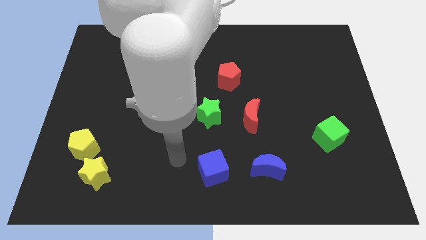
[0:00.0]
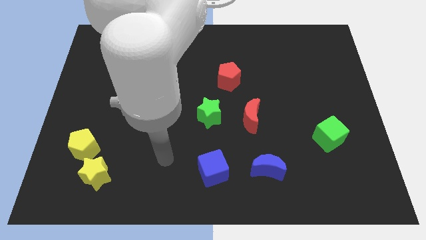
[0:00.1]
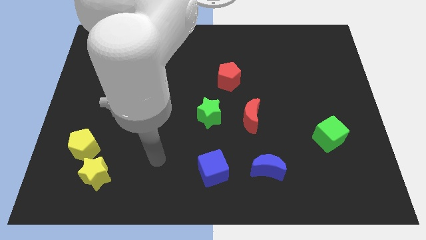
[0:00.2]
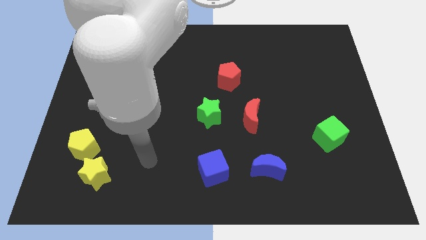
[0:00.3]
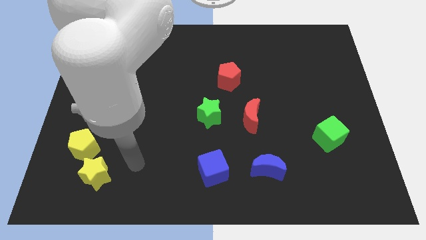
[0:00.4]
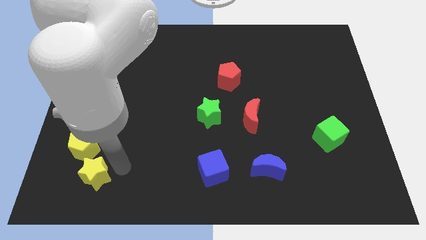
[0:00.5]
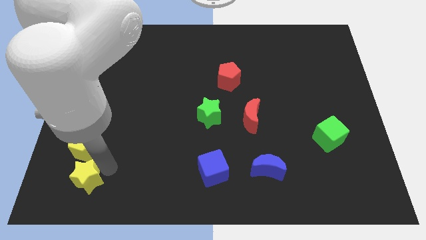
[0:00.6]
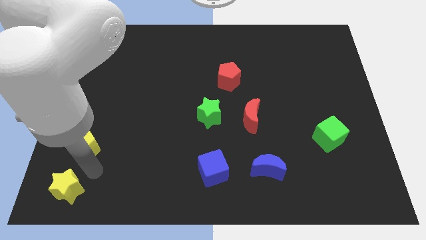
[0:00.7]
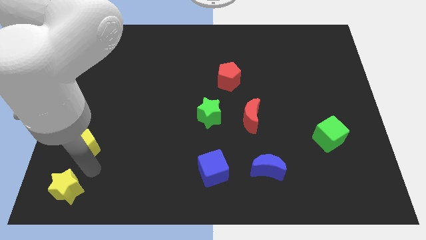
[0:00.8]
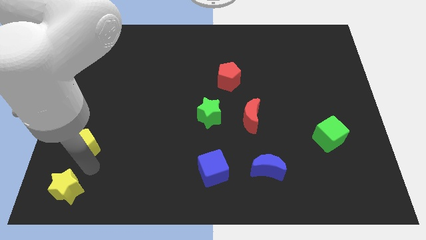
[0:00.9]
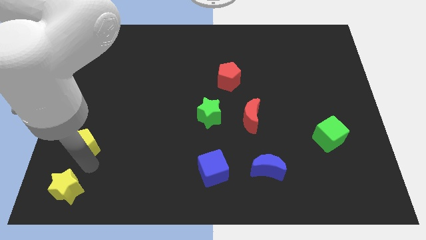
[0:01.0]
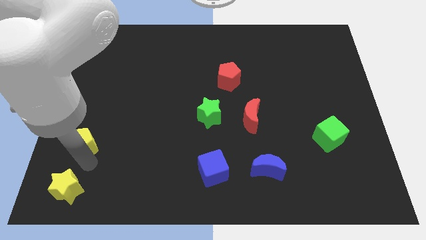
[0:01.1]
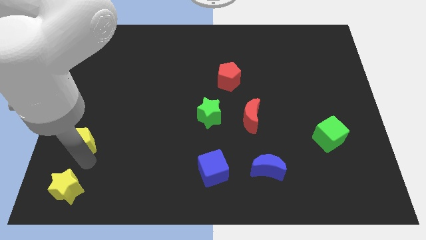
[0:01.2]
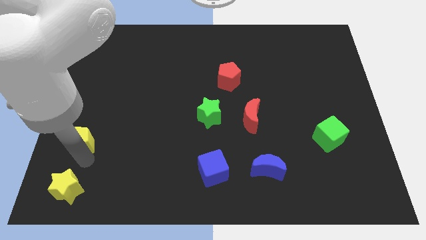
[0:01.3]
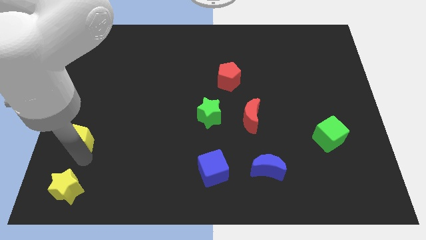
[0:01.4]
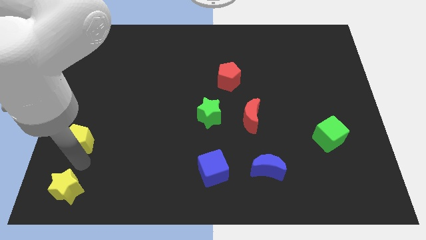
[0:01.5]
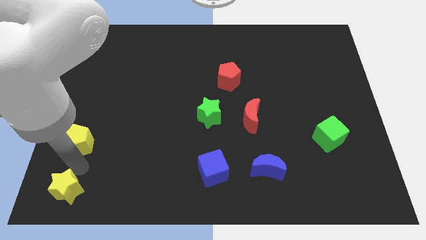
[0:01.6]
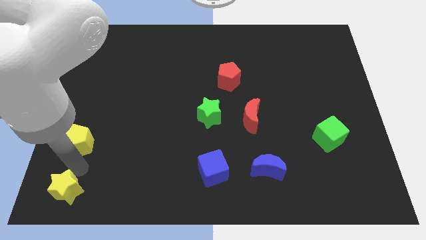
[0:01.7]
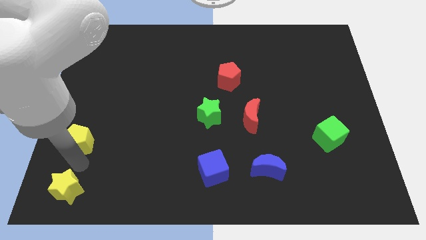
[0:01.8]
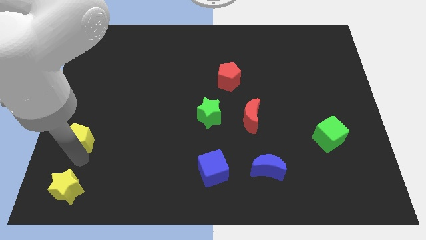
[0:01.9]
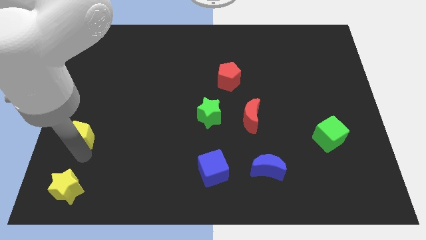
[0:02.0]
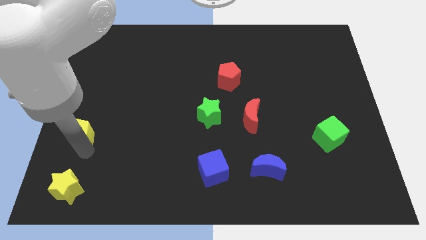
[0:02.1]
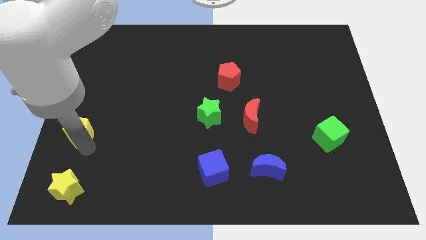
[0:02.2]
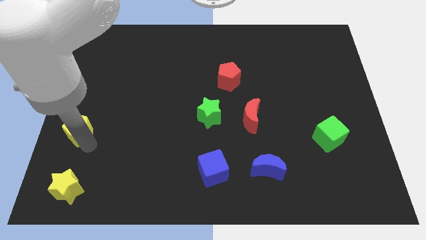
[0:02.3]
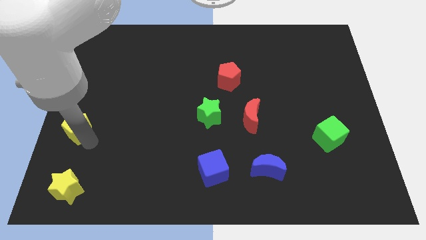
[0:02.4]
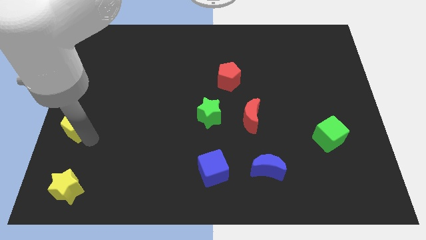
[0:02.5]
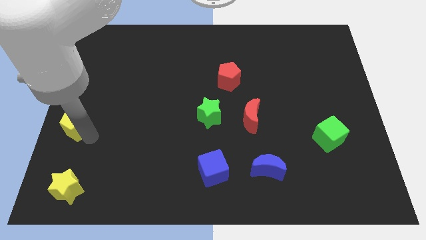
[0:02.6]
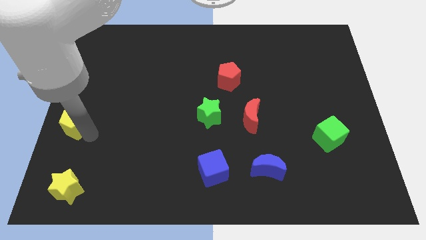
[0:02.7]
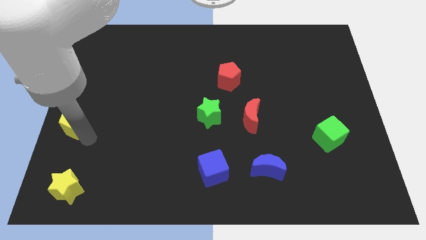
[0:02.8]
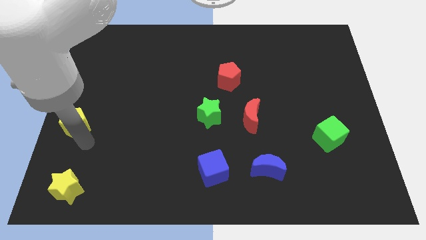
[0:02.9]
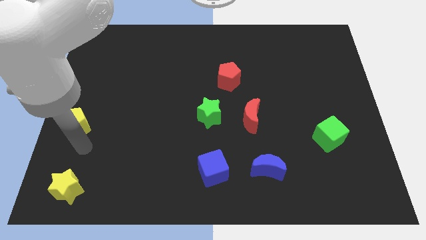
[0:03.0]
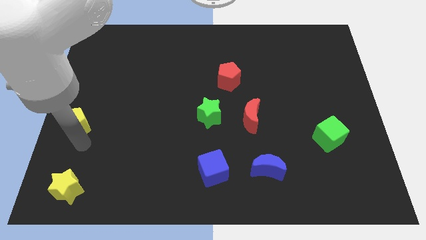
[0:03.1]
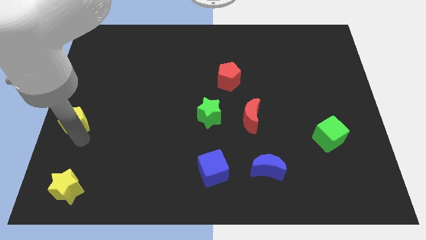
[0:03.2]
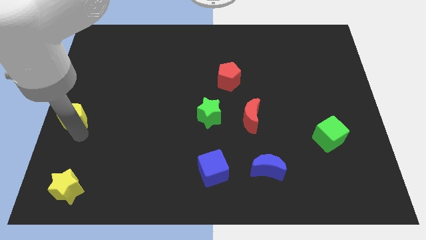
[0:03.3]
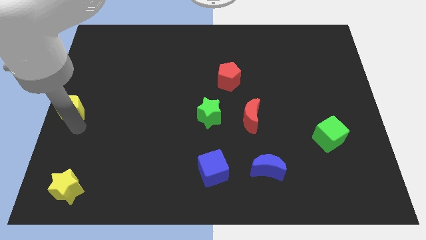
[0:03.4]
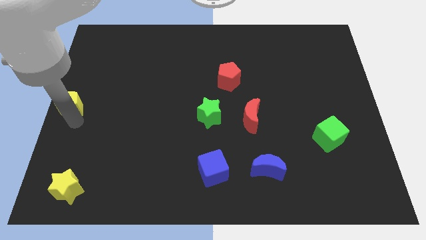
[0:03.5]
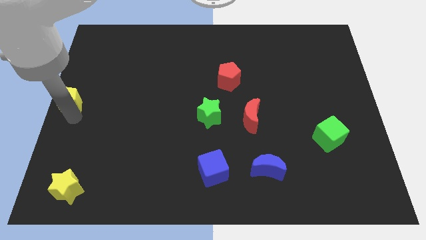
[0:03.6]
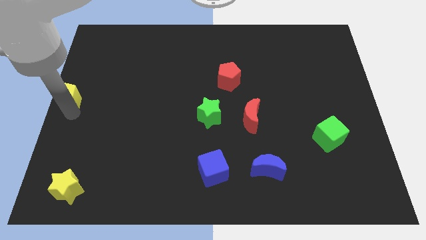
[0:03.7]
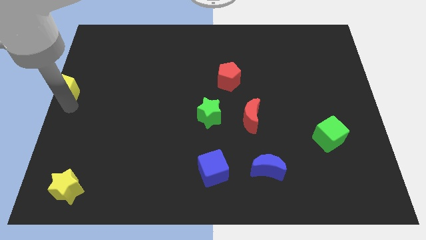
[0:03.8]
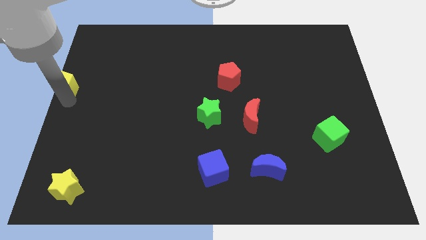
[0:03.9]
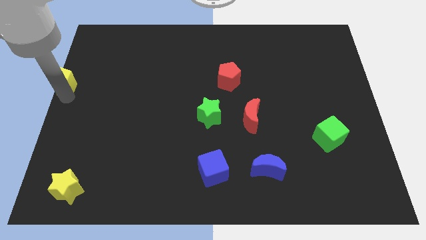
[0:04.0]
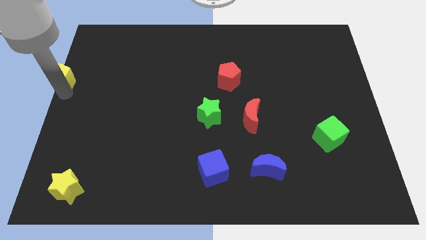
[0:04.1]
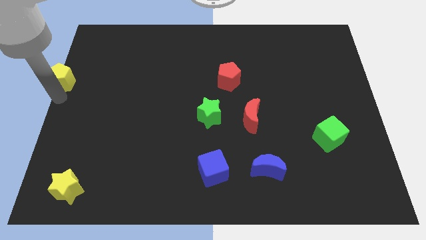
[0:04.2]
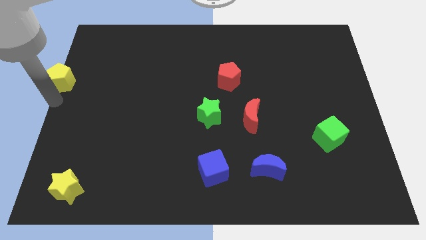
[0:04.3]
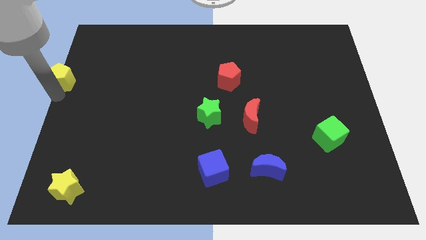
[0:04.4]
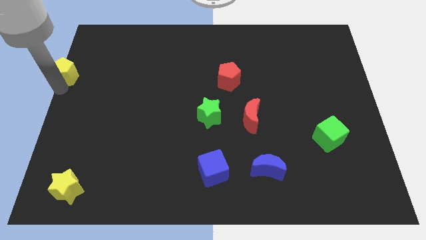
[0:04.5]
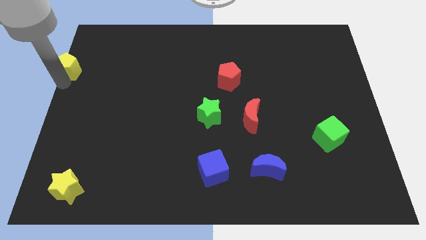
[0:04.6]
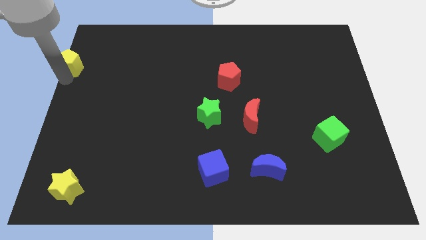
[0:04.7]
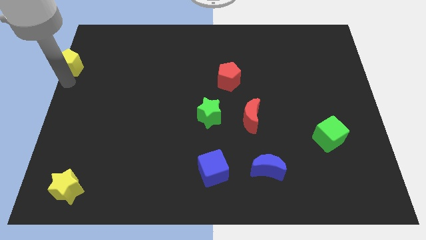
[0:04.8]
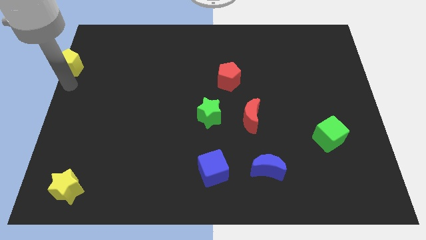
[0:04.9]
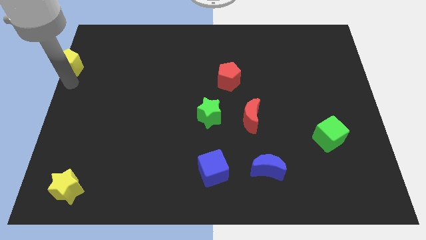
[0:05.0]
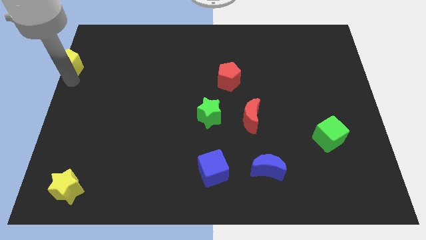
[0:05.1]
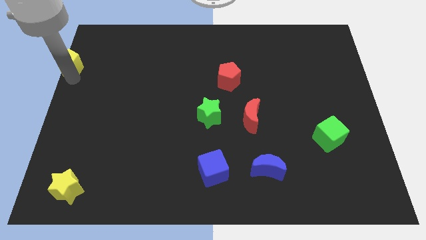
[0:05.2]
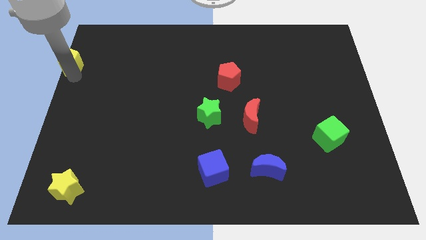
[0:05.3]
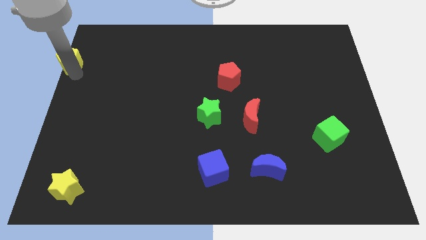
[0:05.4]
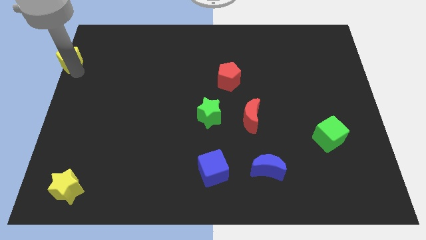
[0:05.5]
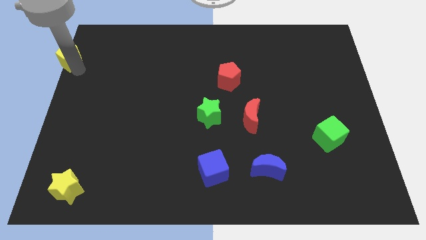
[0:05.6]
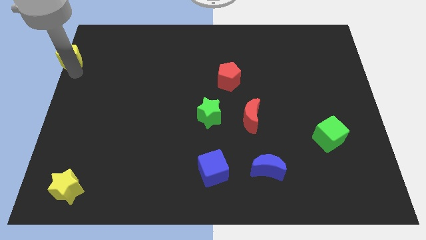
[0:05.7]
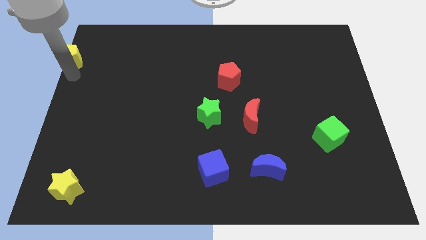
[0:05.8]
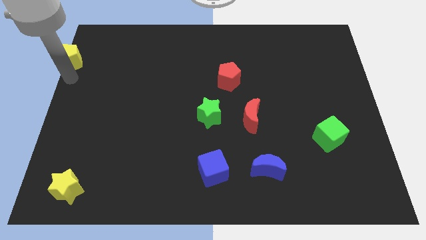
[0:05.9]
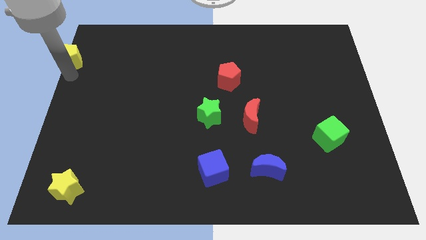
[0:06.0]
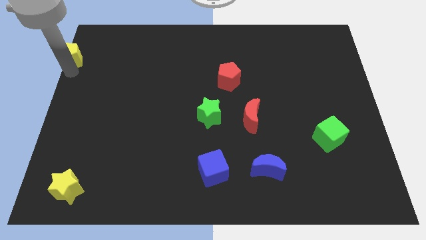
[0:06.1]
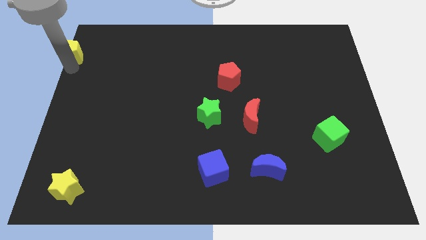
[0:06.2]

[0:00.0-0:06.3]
push the yellow pentagon to the top left of the board

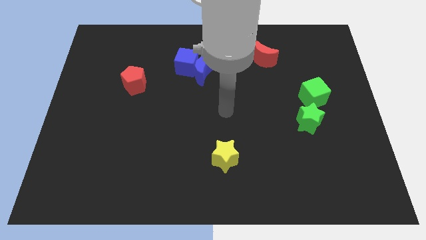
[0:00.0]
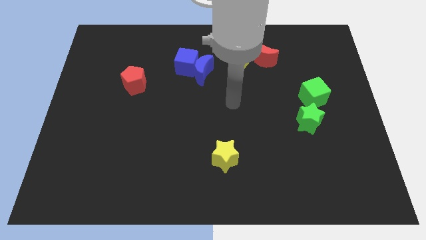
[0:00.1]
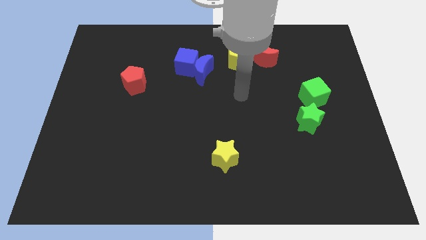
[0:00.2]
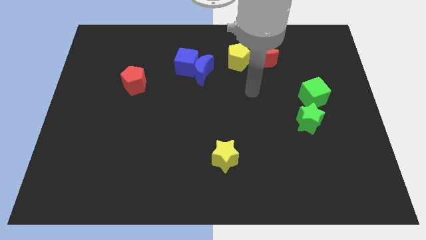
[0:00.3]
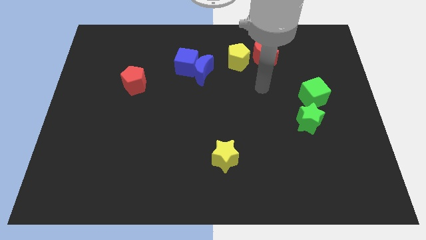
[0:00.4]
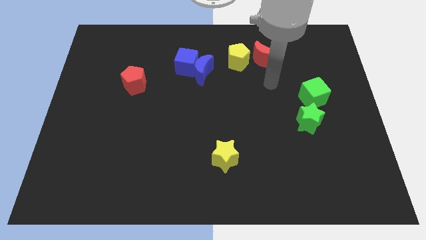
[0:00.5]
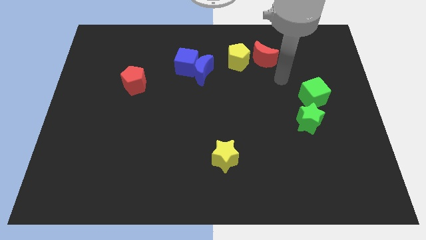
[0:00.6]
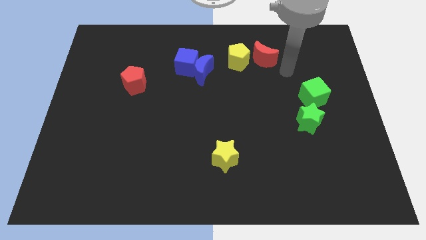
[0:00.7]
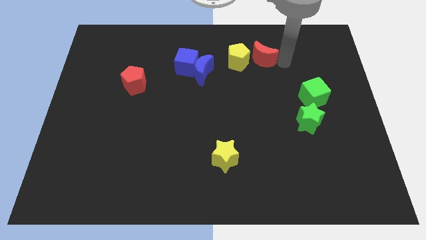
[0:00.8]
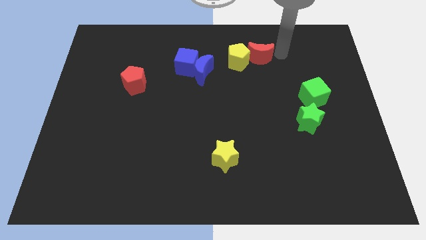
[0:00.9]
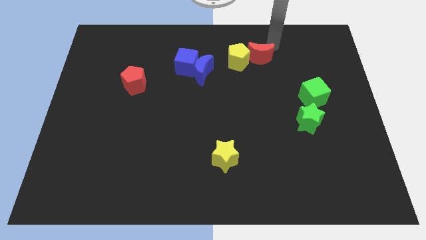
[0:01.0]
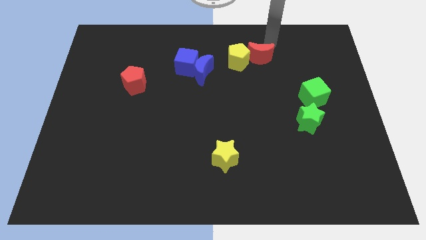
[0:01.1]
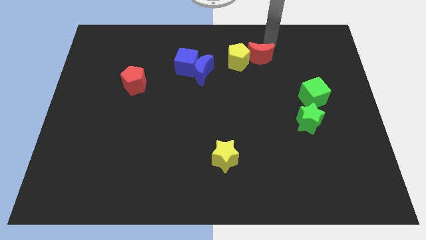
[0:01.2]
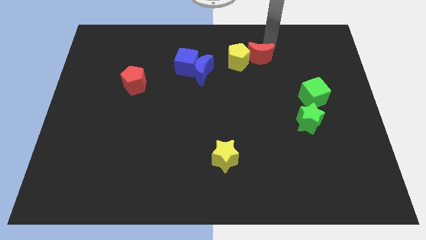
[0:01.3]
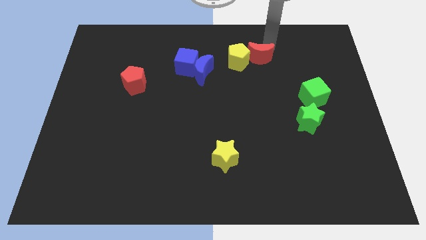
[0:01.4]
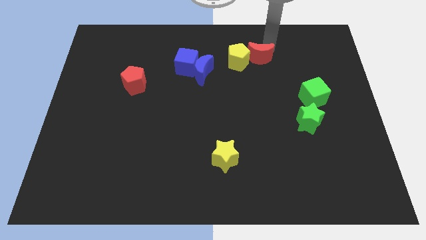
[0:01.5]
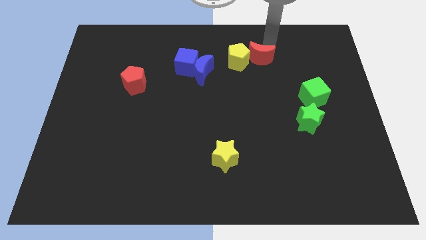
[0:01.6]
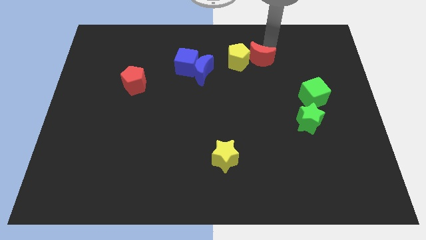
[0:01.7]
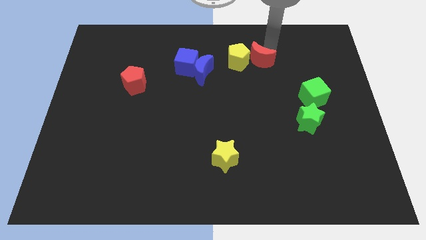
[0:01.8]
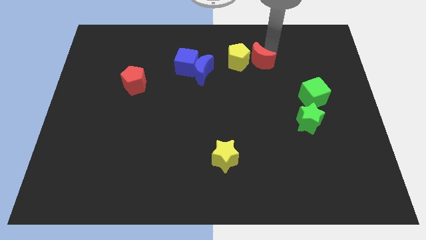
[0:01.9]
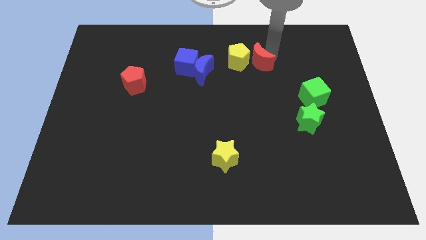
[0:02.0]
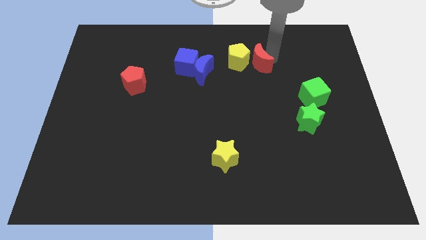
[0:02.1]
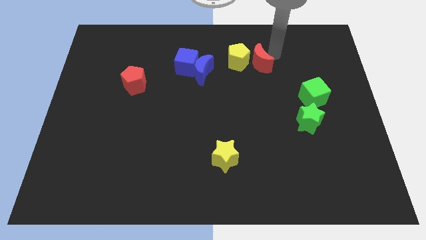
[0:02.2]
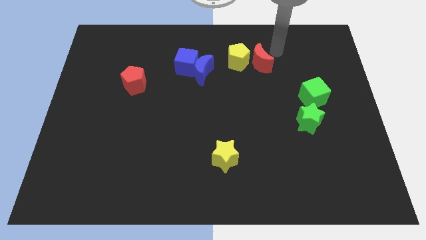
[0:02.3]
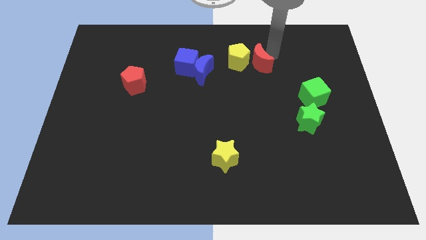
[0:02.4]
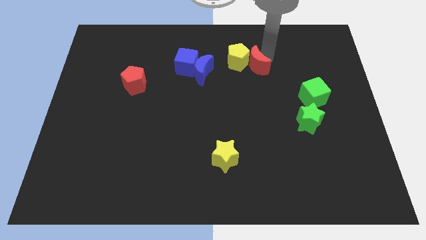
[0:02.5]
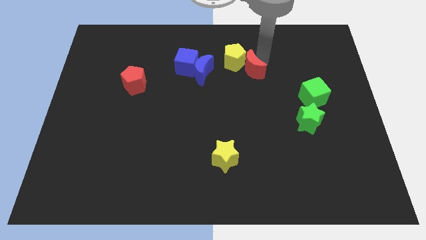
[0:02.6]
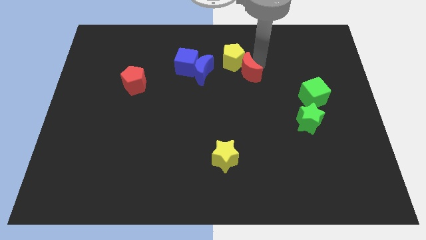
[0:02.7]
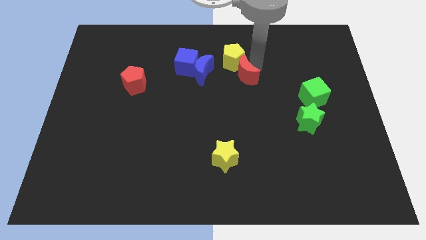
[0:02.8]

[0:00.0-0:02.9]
push the red moon to the middle of the board
